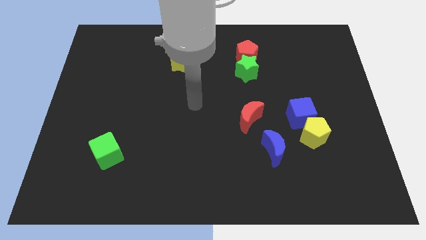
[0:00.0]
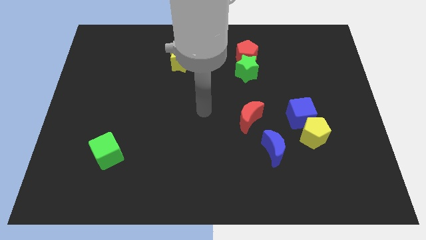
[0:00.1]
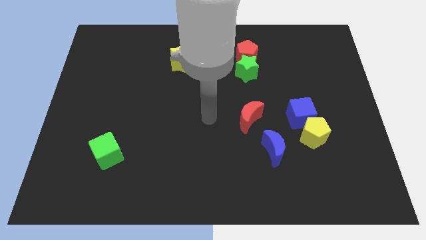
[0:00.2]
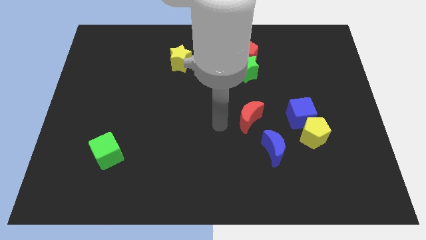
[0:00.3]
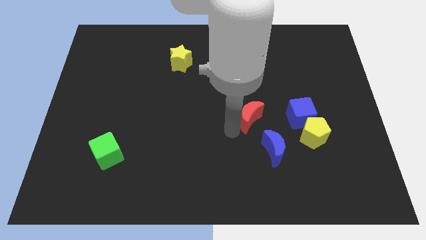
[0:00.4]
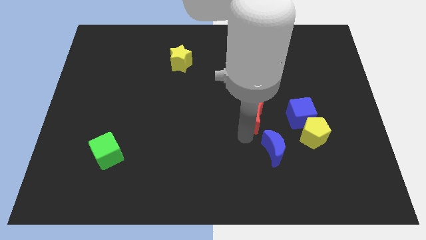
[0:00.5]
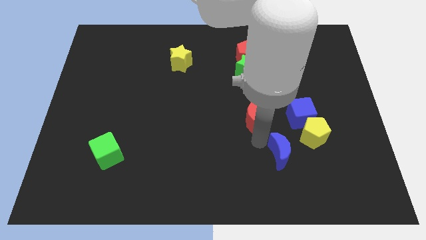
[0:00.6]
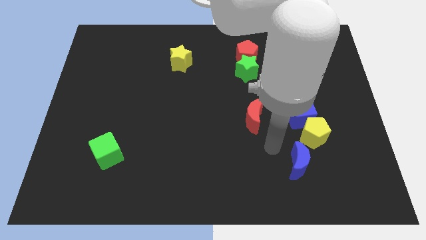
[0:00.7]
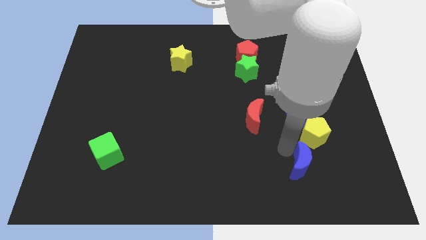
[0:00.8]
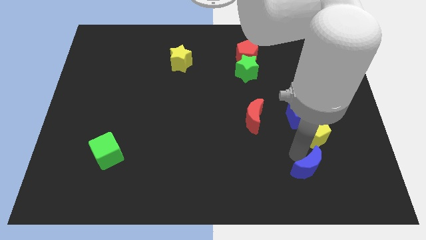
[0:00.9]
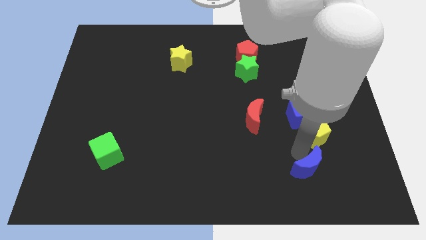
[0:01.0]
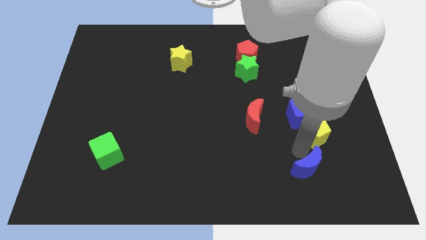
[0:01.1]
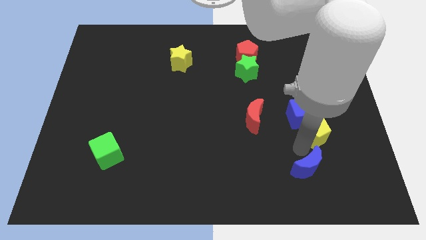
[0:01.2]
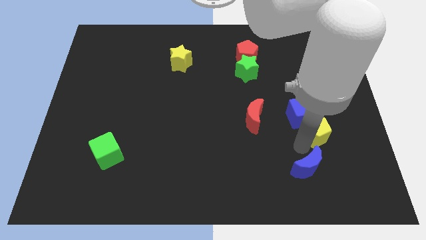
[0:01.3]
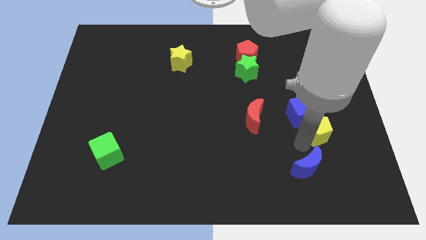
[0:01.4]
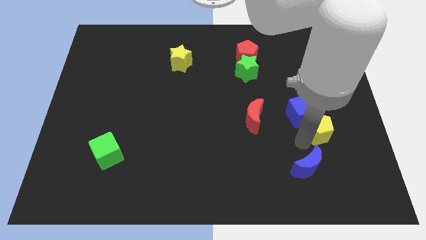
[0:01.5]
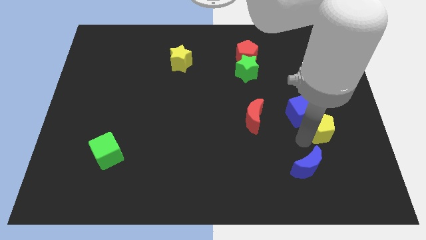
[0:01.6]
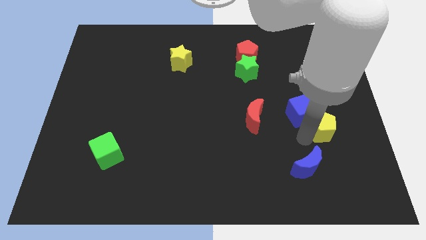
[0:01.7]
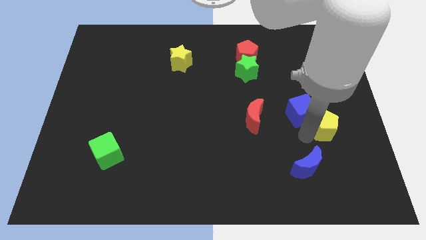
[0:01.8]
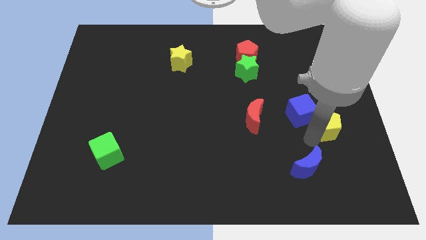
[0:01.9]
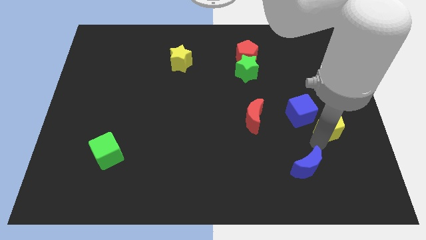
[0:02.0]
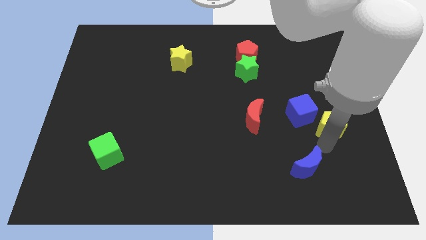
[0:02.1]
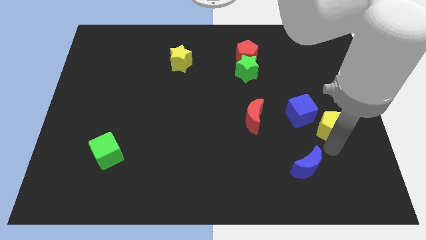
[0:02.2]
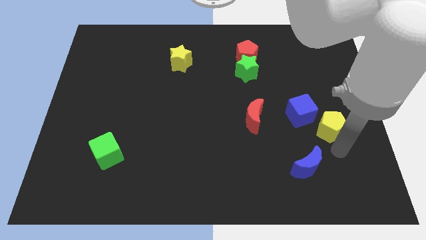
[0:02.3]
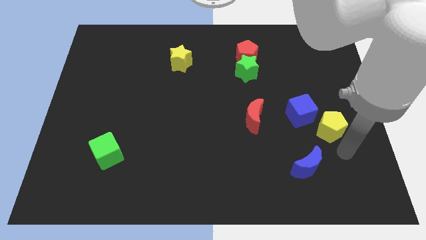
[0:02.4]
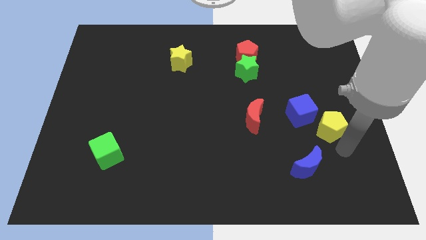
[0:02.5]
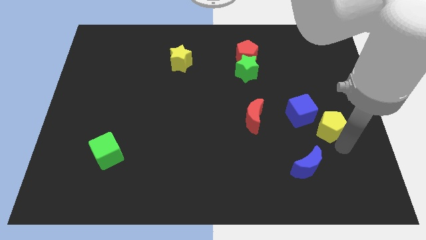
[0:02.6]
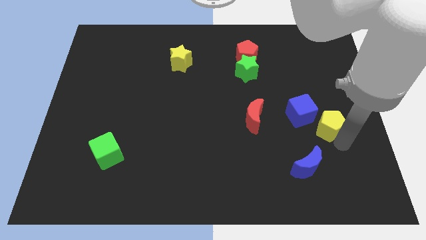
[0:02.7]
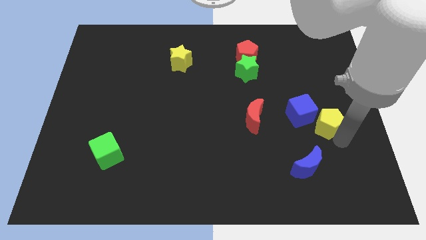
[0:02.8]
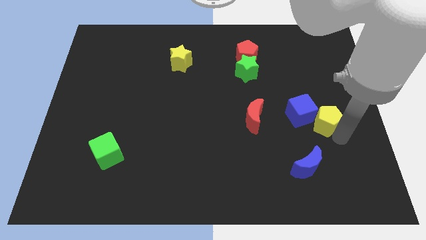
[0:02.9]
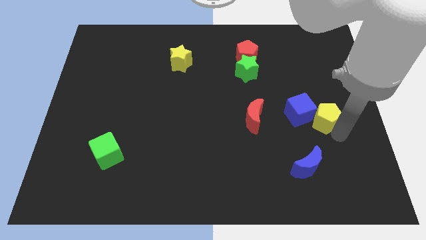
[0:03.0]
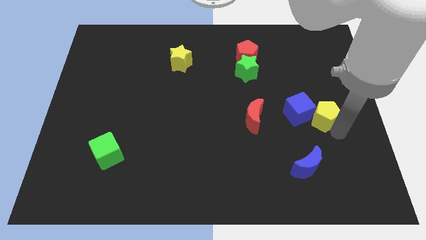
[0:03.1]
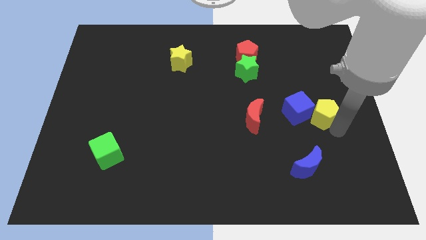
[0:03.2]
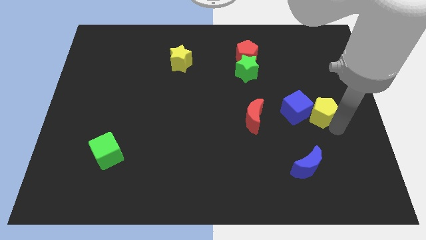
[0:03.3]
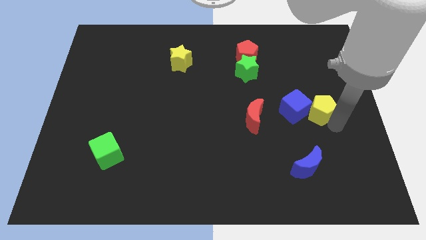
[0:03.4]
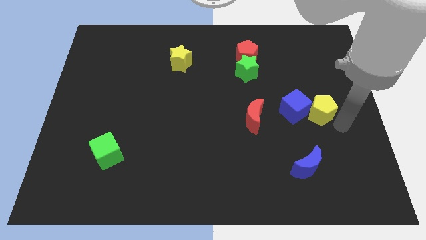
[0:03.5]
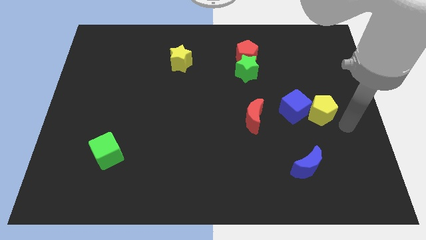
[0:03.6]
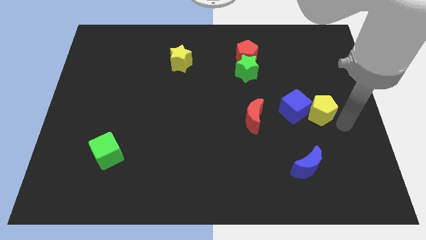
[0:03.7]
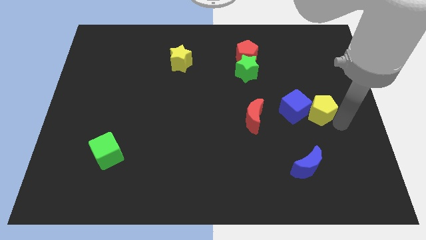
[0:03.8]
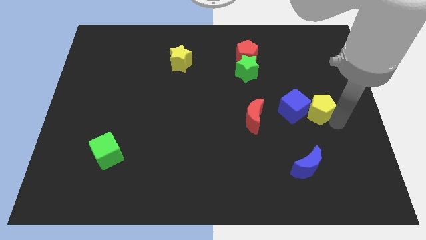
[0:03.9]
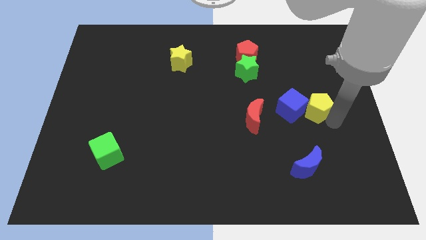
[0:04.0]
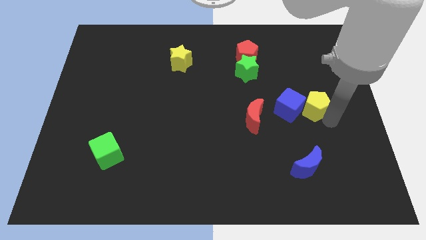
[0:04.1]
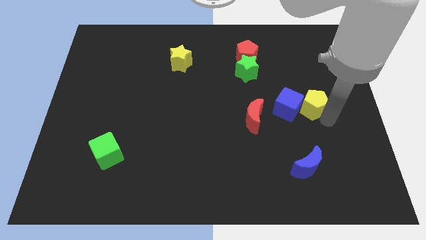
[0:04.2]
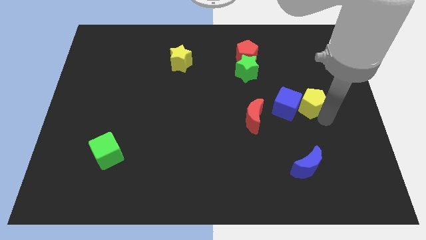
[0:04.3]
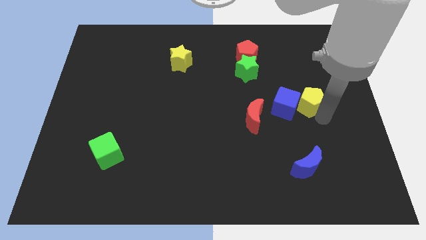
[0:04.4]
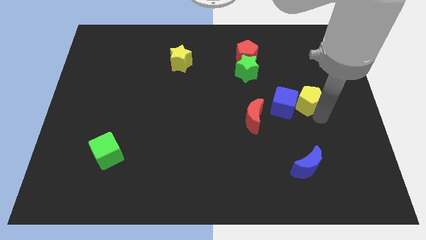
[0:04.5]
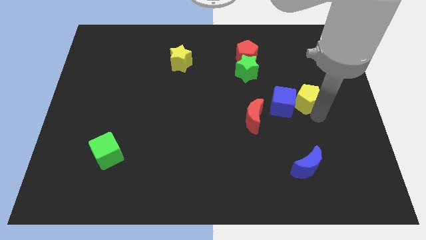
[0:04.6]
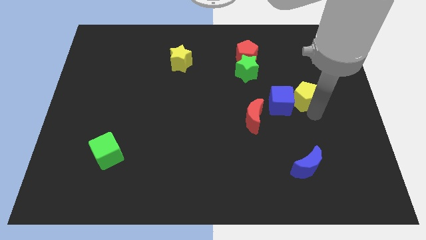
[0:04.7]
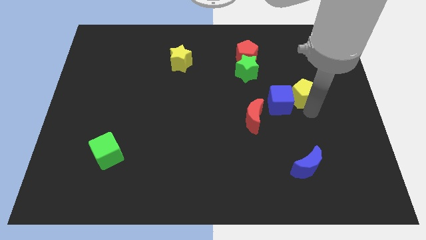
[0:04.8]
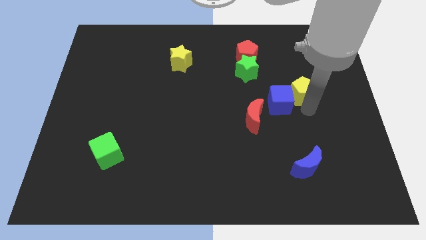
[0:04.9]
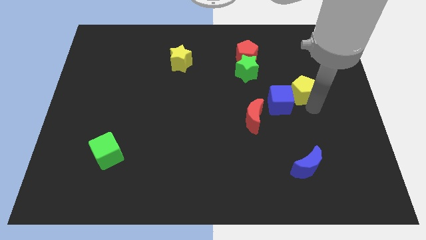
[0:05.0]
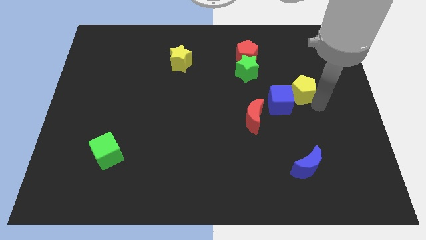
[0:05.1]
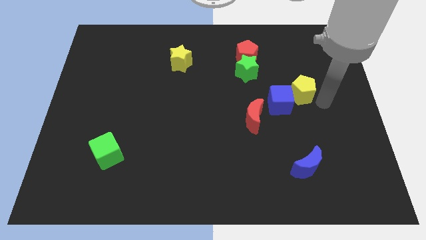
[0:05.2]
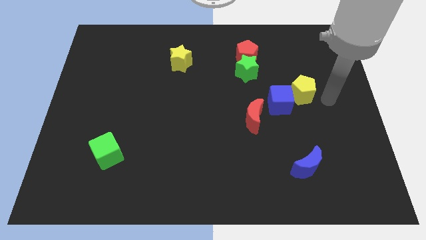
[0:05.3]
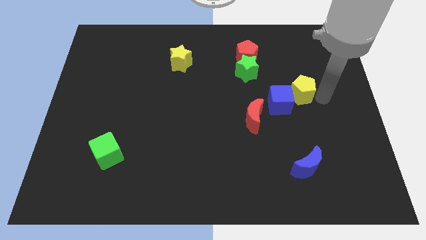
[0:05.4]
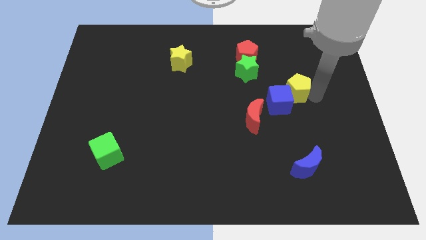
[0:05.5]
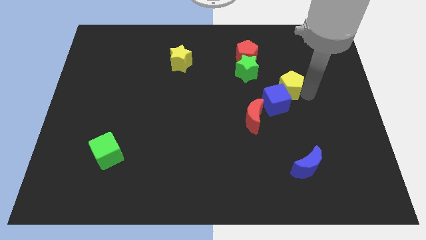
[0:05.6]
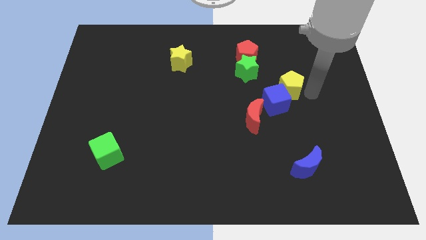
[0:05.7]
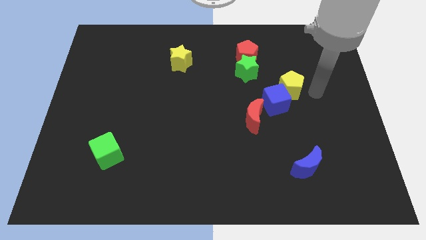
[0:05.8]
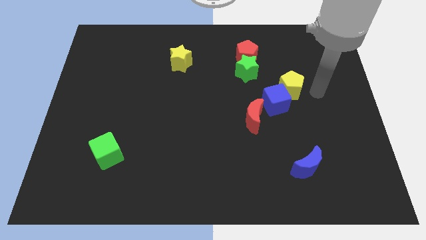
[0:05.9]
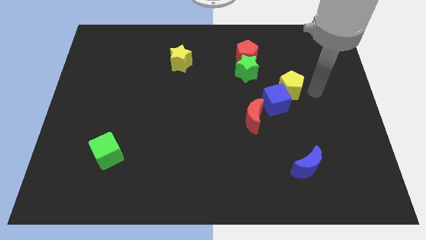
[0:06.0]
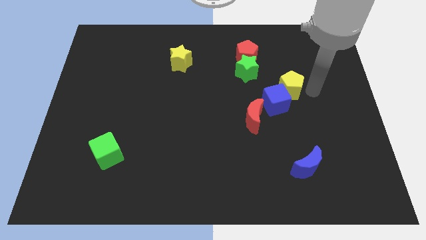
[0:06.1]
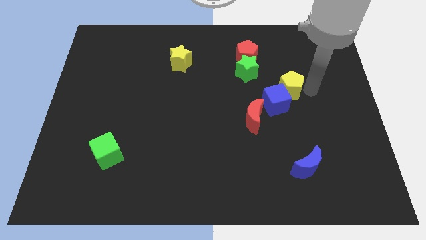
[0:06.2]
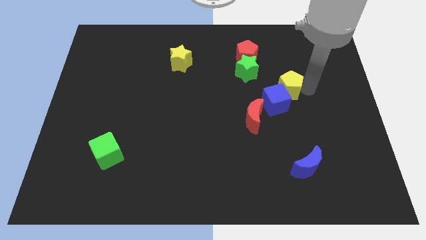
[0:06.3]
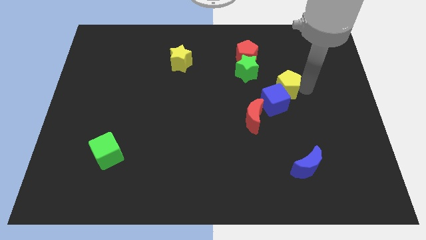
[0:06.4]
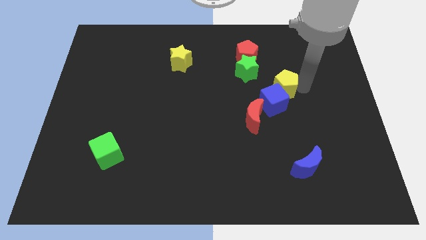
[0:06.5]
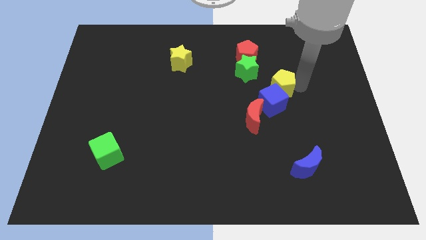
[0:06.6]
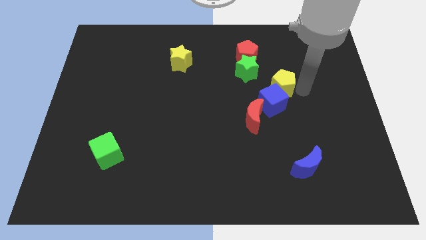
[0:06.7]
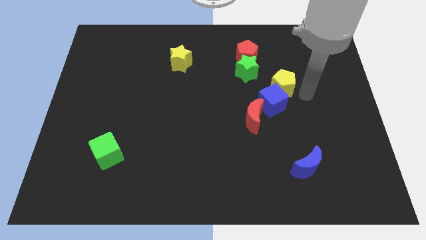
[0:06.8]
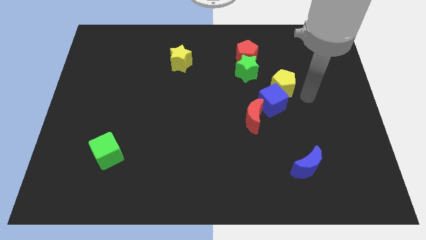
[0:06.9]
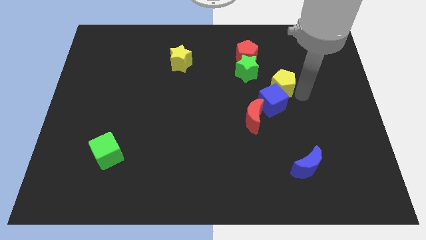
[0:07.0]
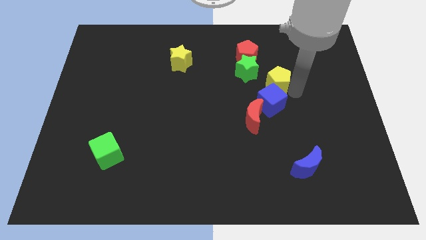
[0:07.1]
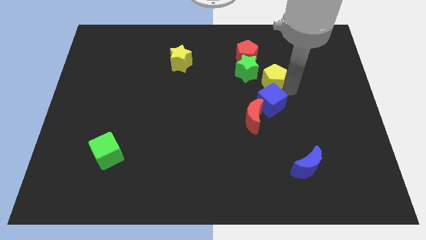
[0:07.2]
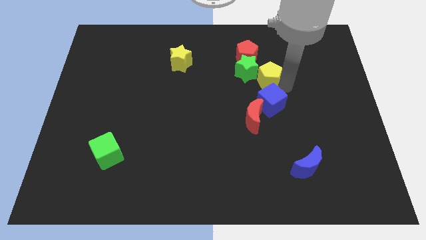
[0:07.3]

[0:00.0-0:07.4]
put the yellow pentagon next to the green star
